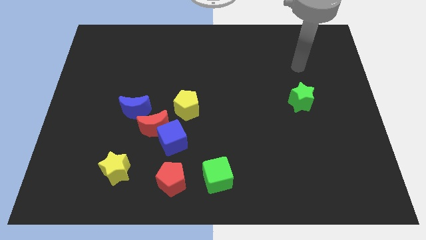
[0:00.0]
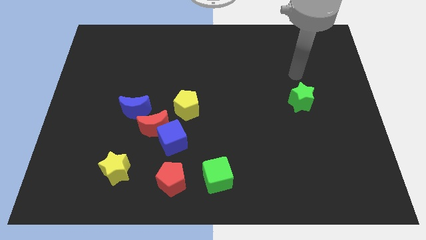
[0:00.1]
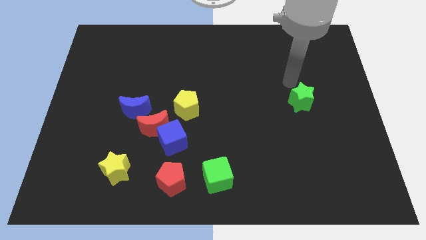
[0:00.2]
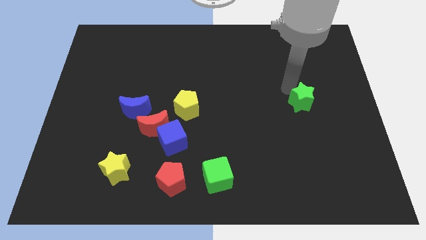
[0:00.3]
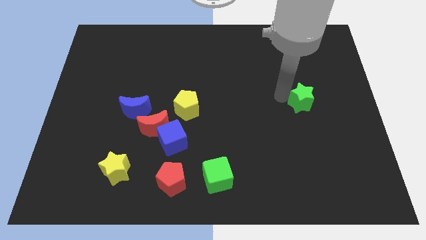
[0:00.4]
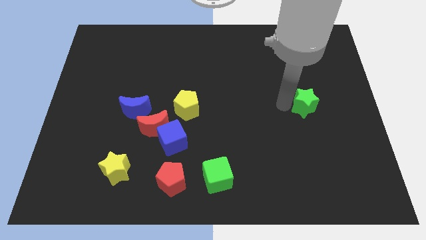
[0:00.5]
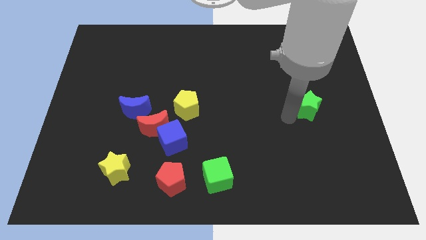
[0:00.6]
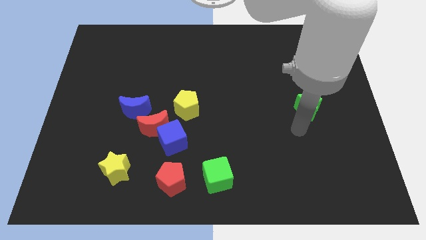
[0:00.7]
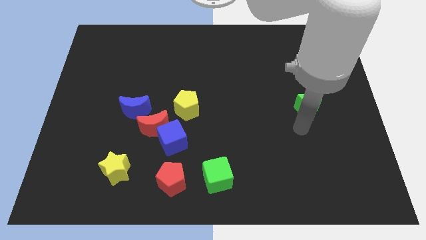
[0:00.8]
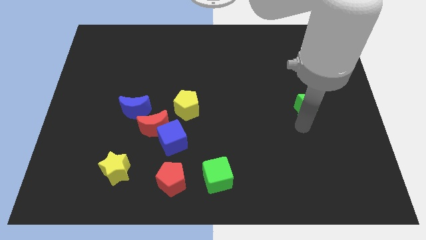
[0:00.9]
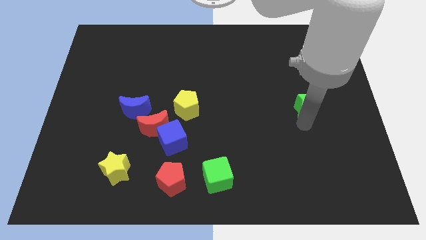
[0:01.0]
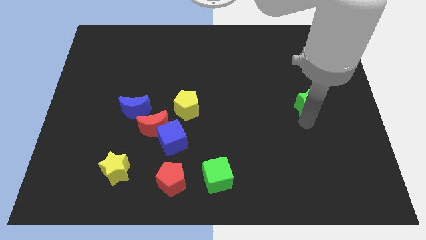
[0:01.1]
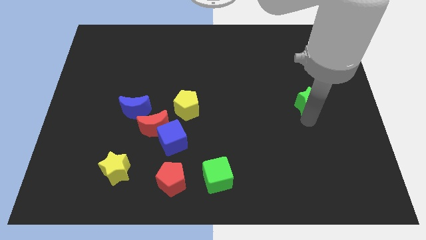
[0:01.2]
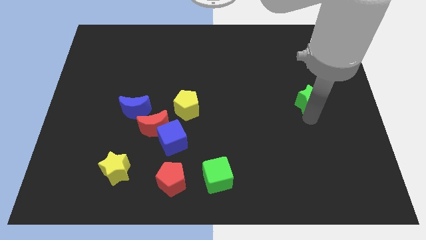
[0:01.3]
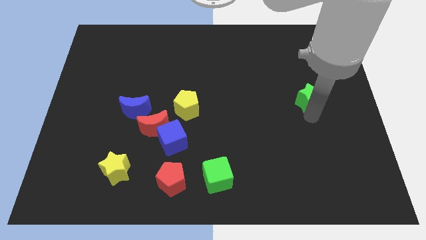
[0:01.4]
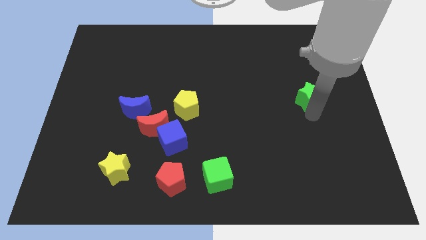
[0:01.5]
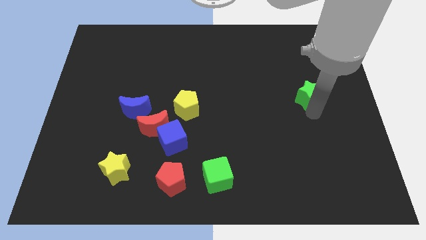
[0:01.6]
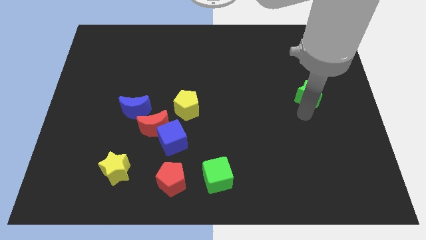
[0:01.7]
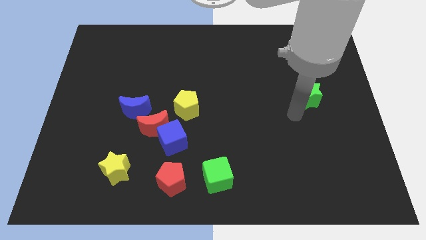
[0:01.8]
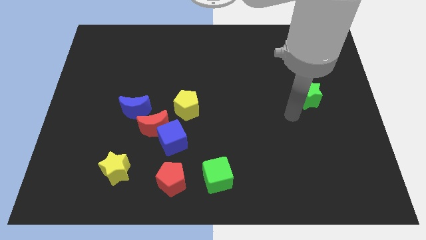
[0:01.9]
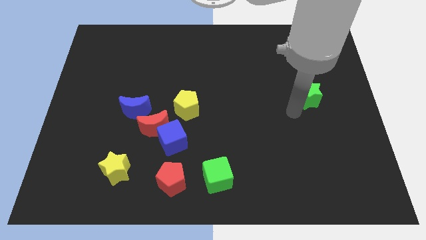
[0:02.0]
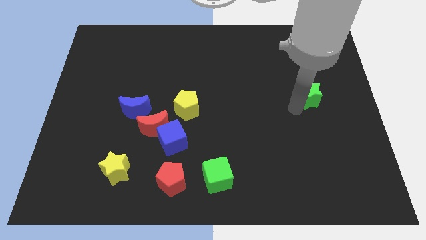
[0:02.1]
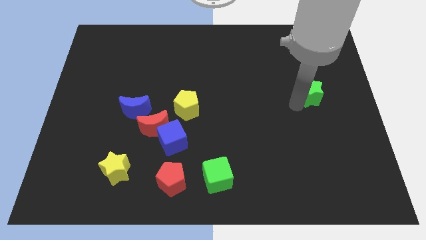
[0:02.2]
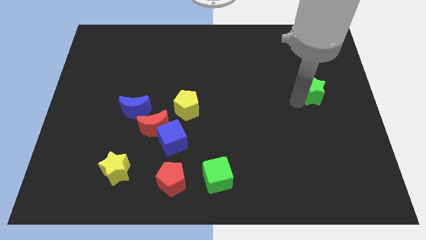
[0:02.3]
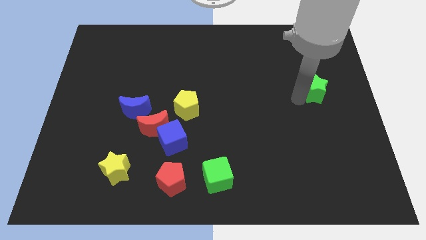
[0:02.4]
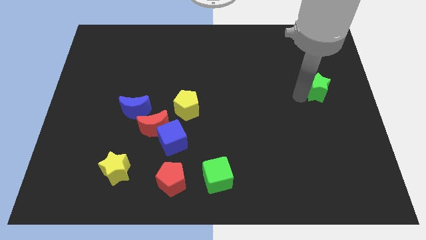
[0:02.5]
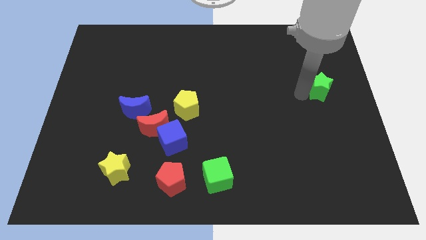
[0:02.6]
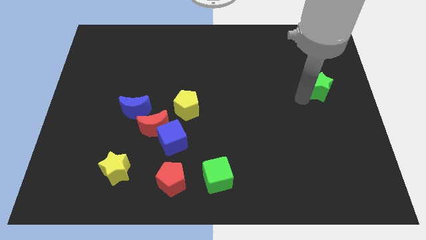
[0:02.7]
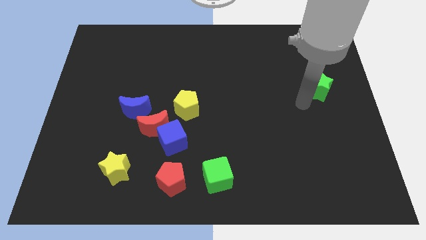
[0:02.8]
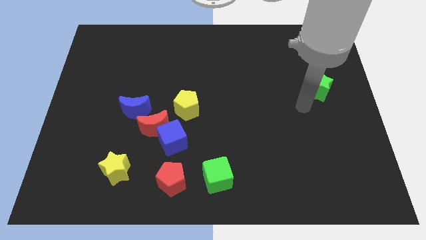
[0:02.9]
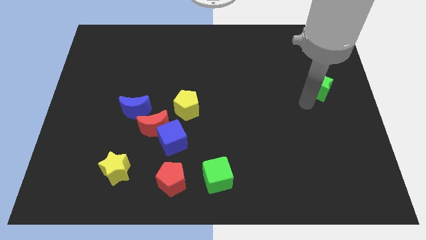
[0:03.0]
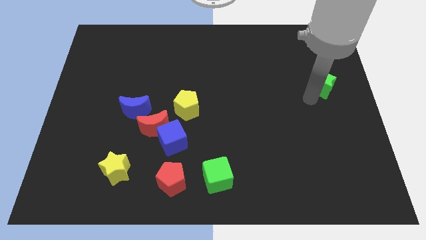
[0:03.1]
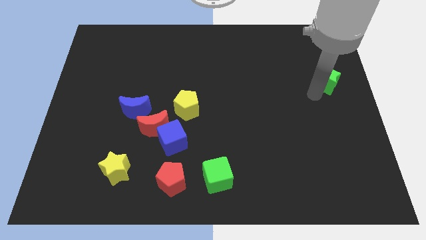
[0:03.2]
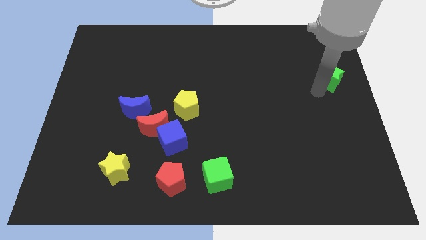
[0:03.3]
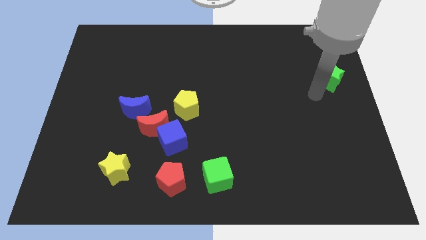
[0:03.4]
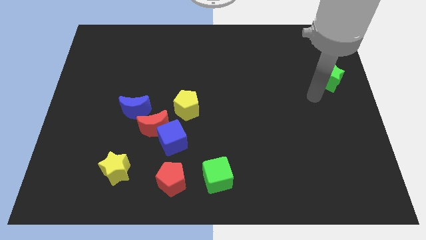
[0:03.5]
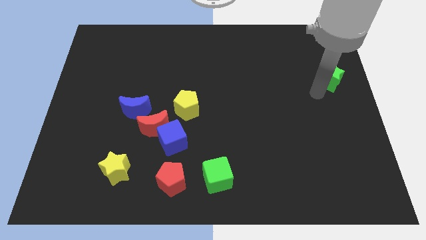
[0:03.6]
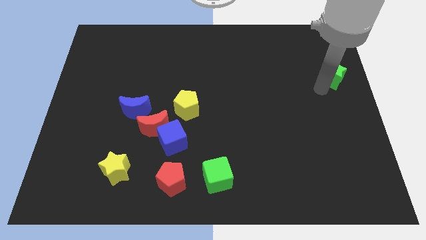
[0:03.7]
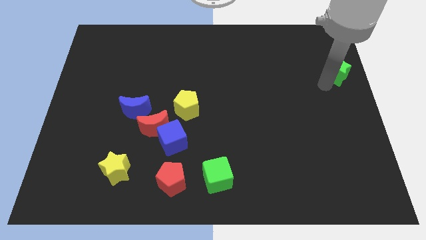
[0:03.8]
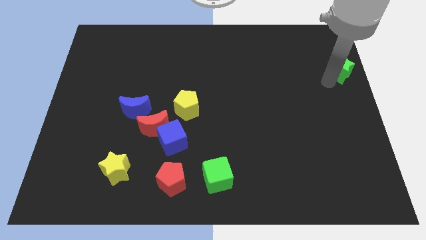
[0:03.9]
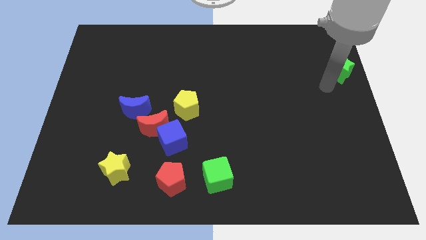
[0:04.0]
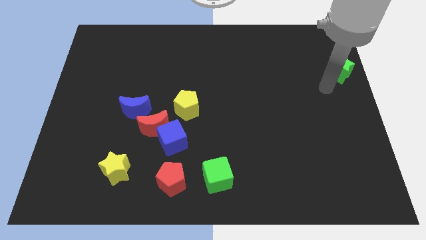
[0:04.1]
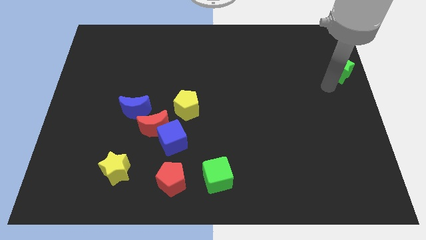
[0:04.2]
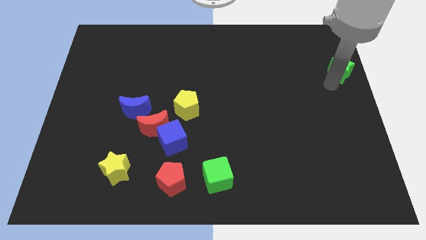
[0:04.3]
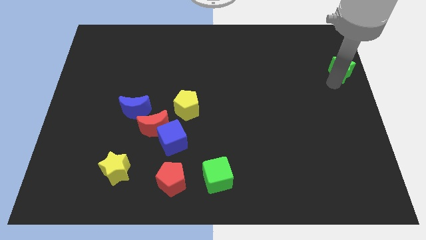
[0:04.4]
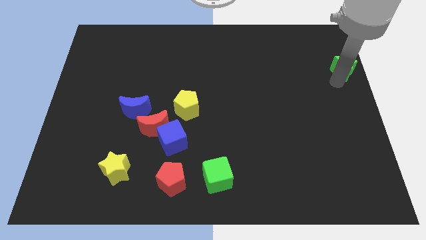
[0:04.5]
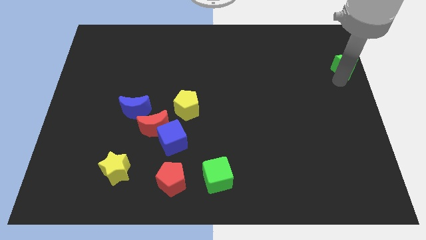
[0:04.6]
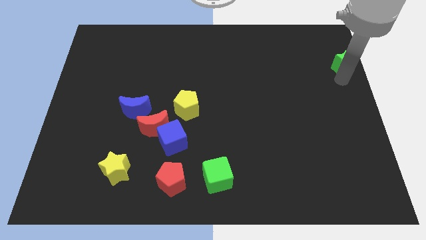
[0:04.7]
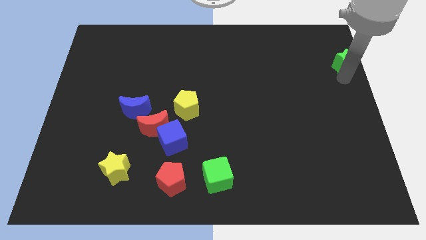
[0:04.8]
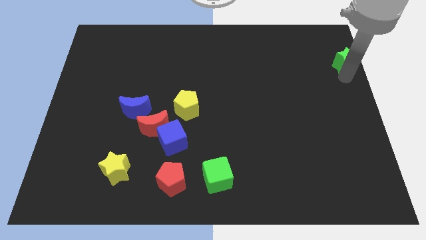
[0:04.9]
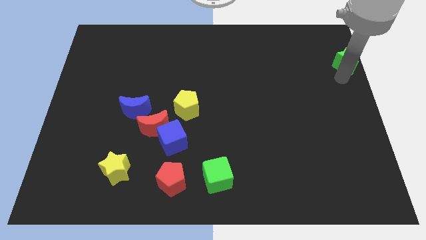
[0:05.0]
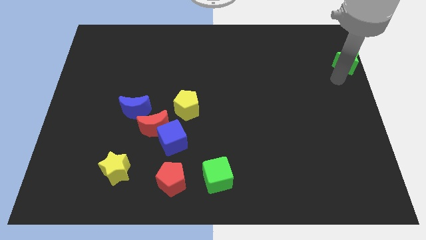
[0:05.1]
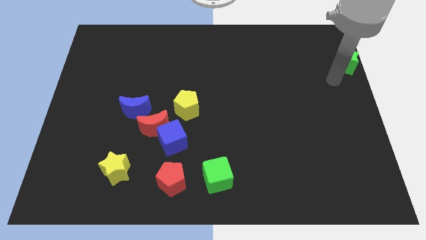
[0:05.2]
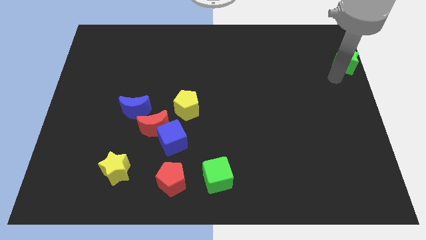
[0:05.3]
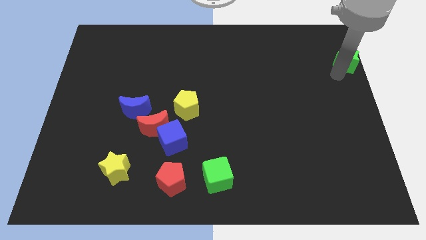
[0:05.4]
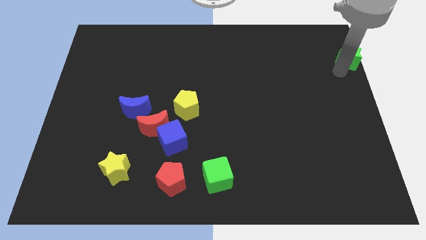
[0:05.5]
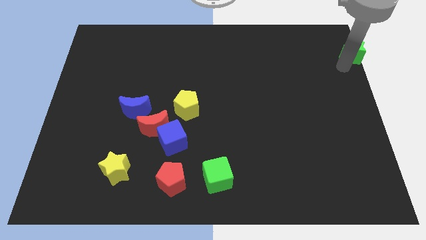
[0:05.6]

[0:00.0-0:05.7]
put the green star to the top right of the board

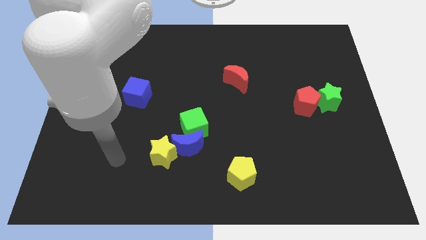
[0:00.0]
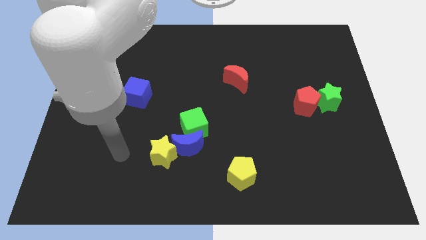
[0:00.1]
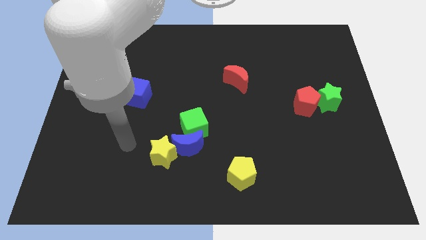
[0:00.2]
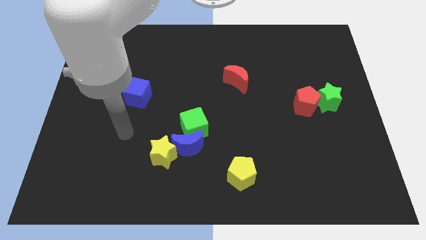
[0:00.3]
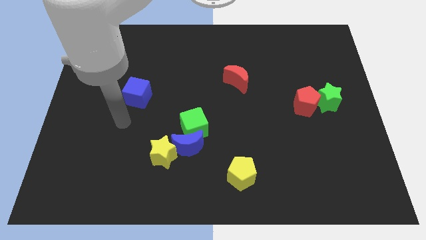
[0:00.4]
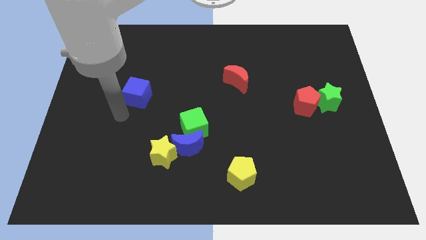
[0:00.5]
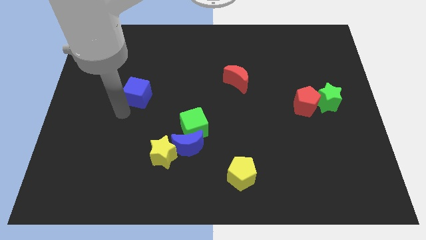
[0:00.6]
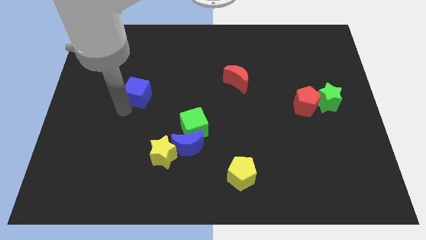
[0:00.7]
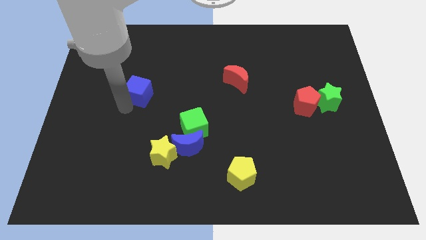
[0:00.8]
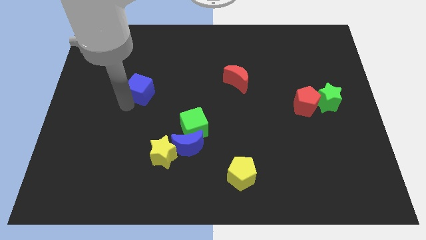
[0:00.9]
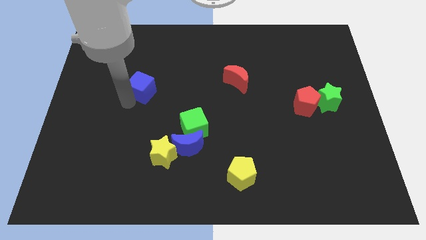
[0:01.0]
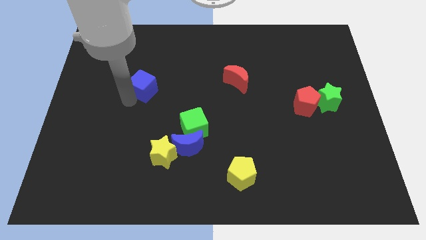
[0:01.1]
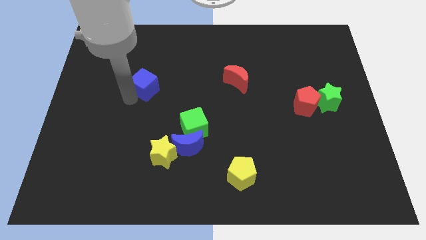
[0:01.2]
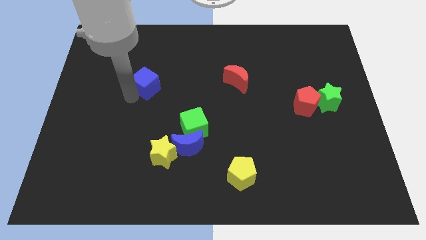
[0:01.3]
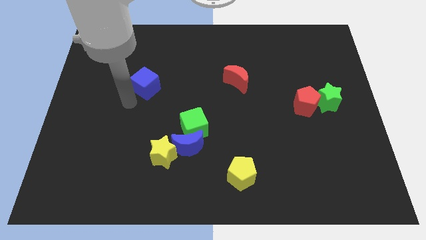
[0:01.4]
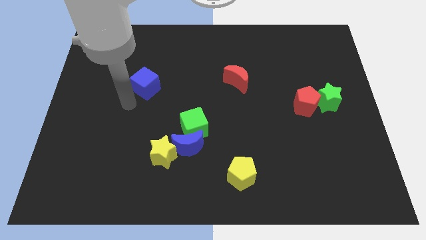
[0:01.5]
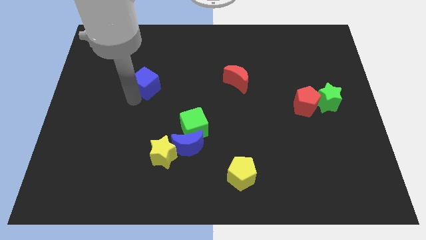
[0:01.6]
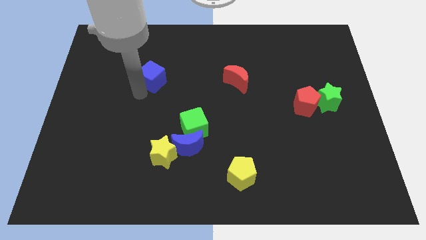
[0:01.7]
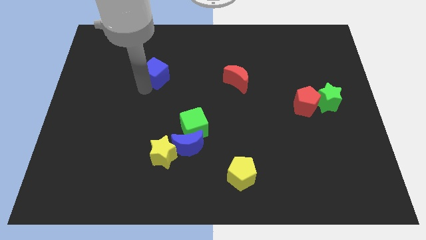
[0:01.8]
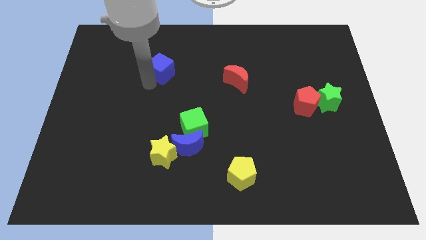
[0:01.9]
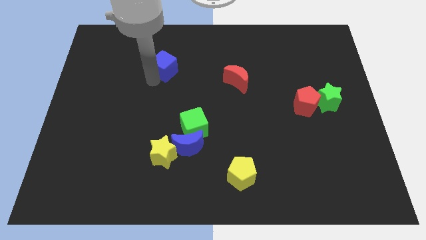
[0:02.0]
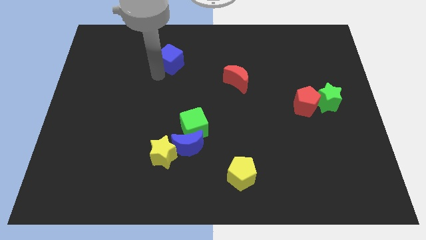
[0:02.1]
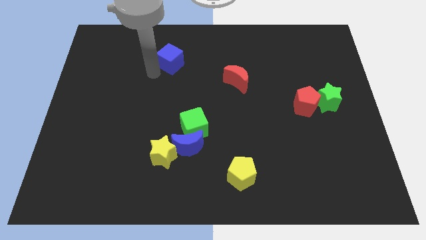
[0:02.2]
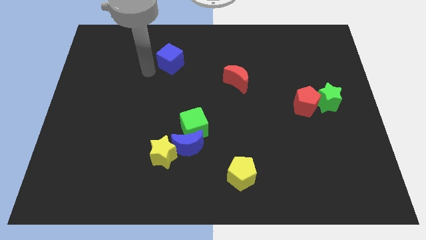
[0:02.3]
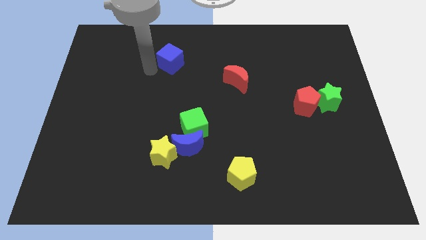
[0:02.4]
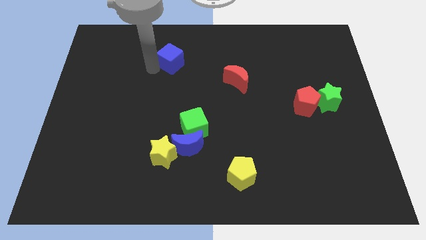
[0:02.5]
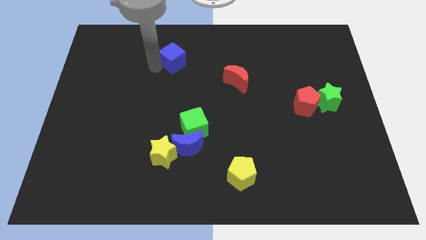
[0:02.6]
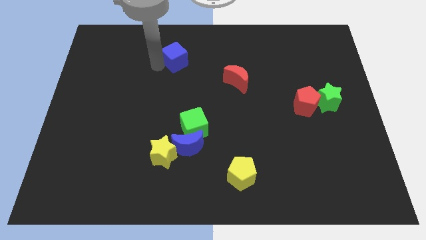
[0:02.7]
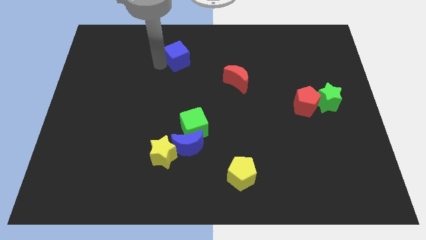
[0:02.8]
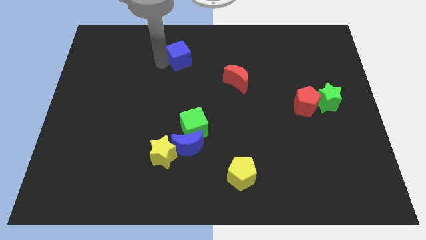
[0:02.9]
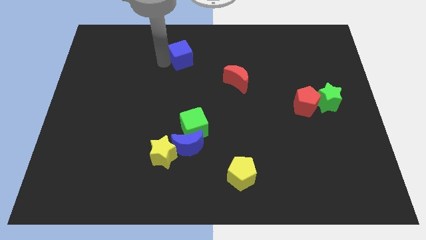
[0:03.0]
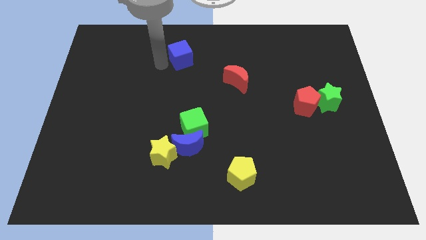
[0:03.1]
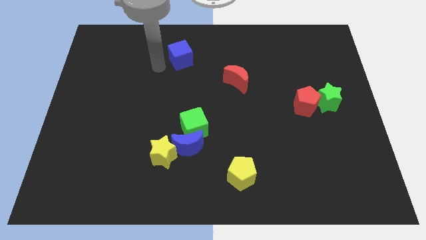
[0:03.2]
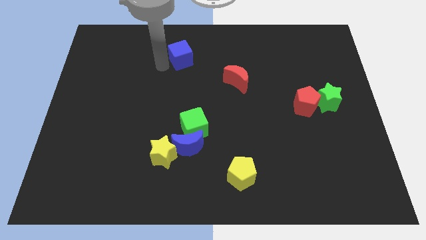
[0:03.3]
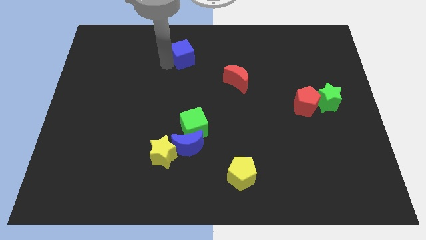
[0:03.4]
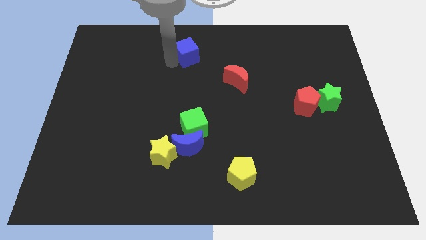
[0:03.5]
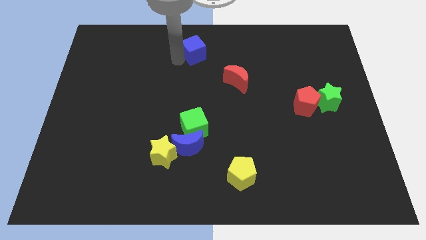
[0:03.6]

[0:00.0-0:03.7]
move the blue cube to the top
